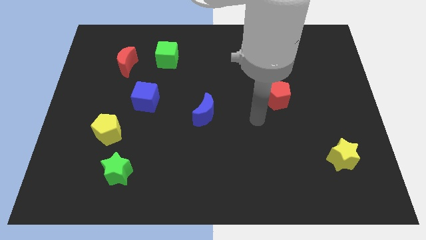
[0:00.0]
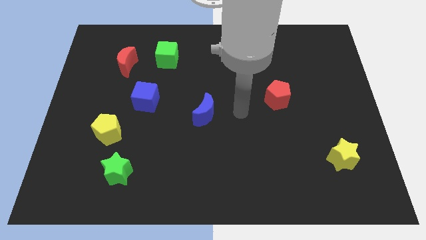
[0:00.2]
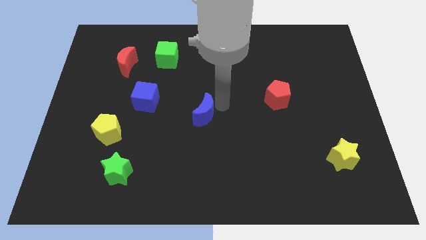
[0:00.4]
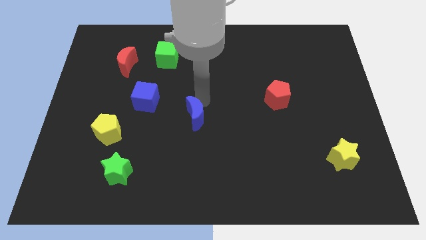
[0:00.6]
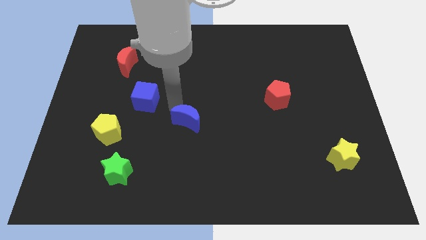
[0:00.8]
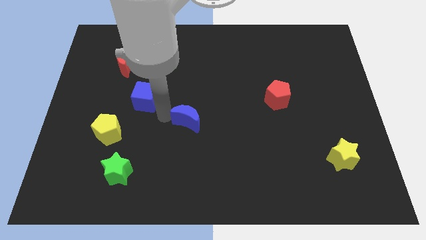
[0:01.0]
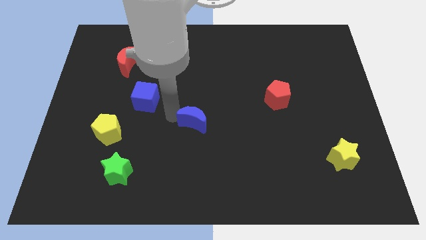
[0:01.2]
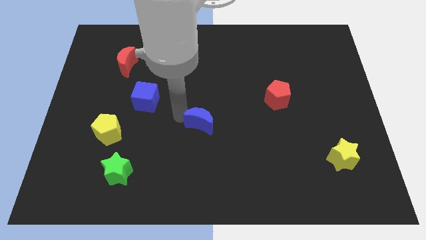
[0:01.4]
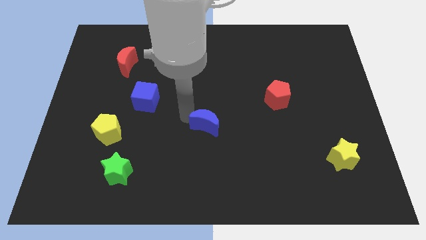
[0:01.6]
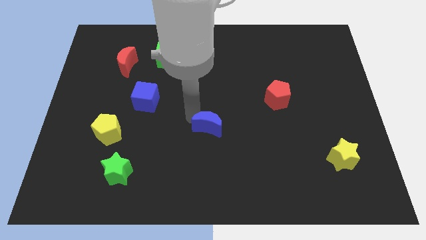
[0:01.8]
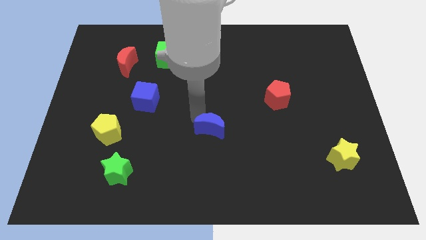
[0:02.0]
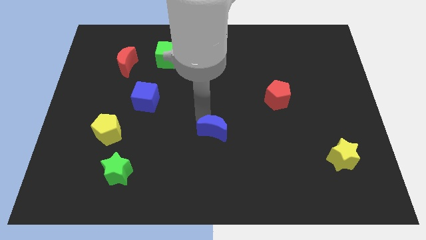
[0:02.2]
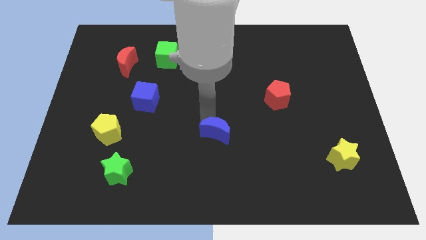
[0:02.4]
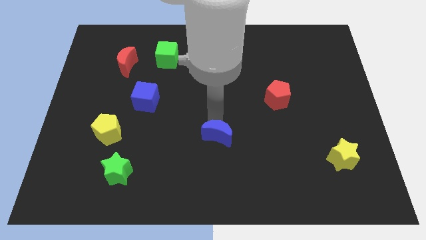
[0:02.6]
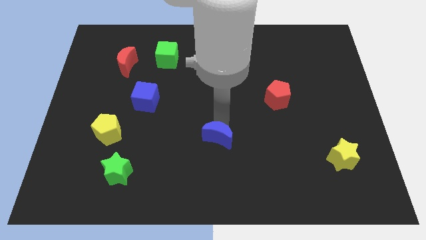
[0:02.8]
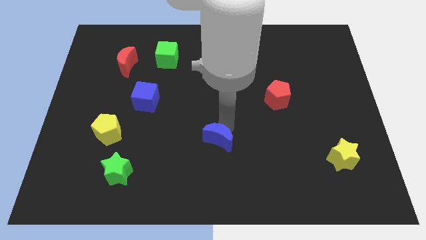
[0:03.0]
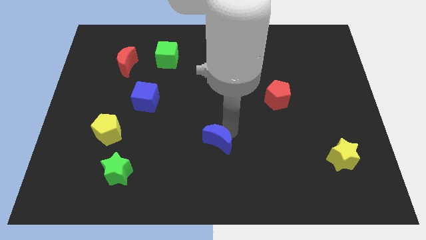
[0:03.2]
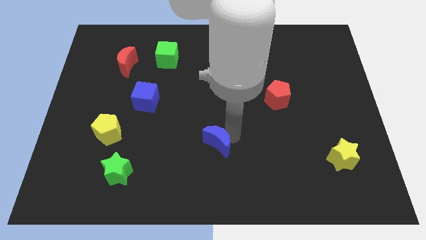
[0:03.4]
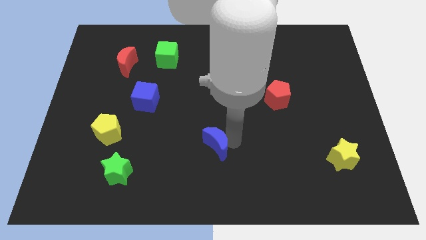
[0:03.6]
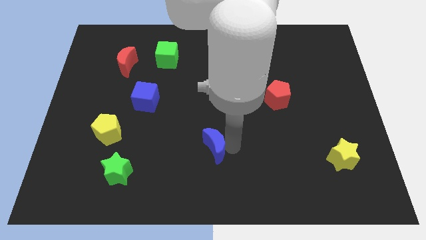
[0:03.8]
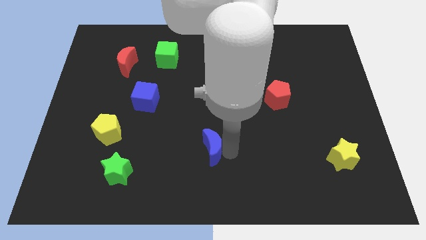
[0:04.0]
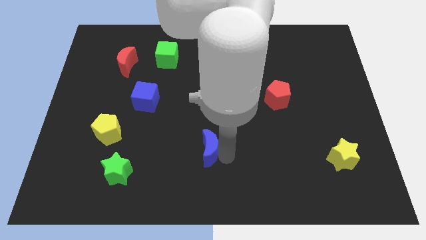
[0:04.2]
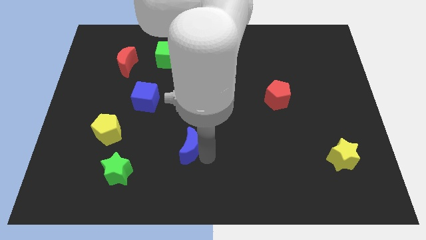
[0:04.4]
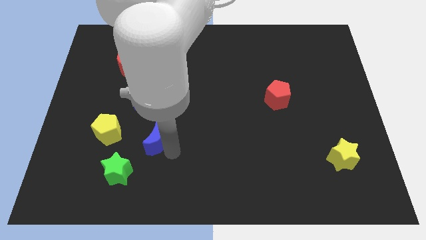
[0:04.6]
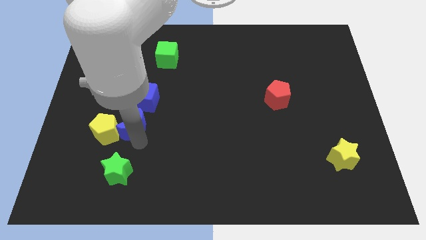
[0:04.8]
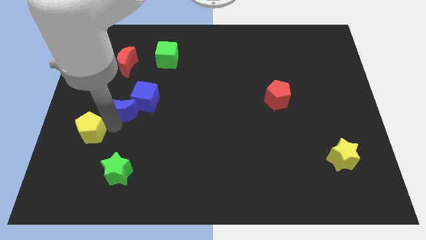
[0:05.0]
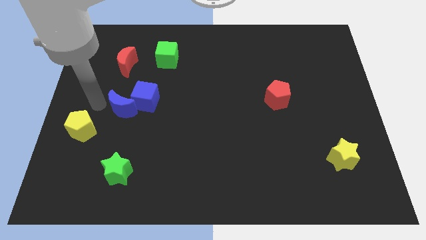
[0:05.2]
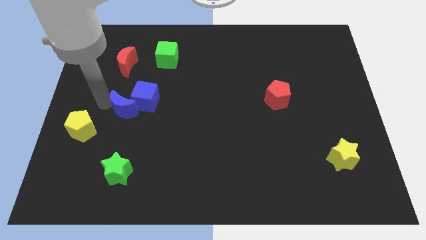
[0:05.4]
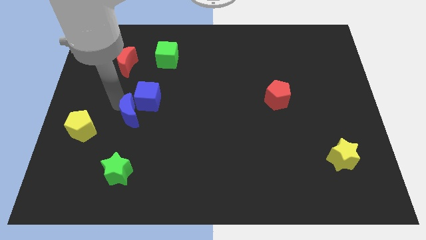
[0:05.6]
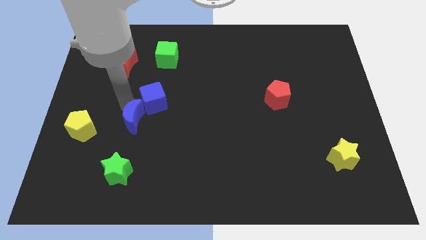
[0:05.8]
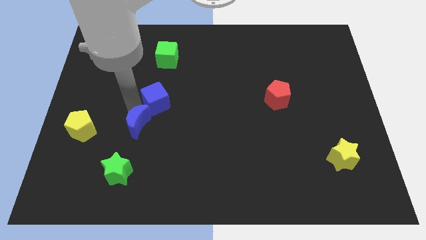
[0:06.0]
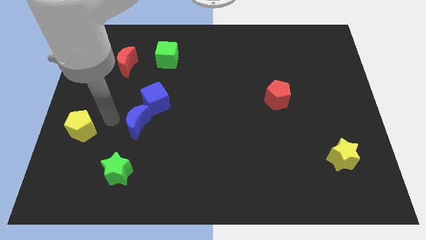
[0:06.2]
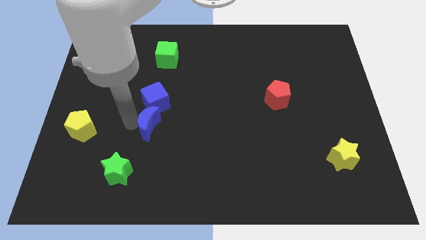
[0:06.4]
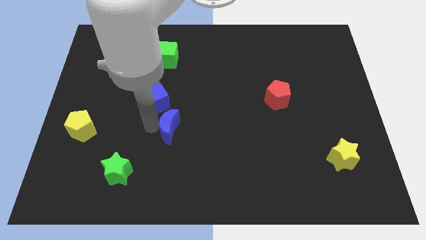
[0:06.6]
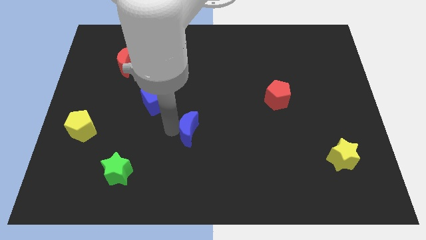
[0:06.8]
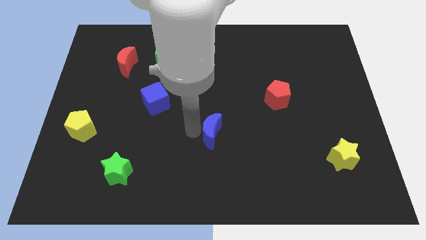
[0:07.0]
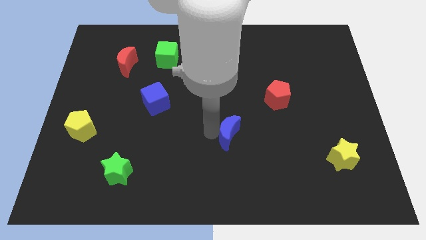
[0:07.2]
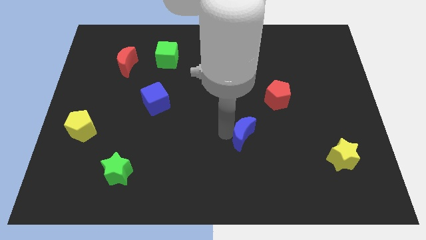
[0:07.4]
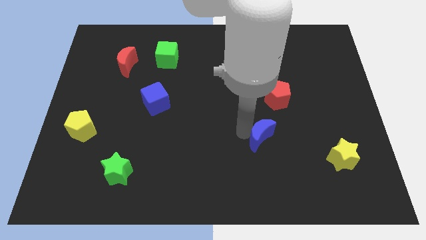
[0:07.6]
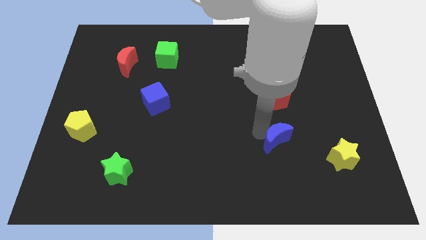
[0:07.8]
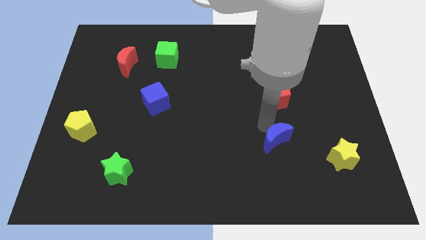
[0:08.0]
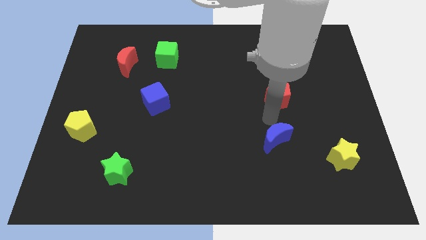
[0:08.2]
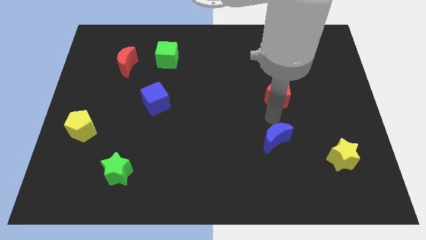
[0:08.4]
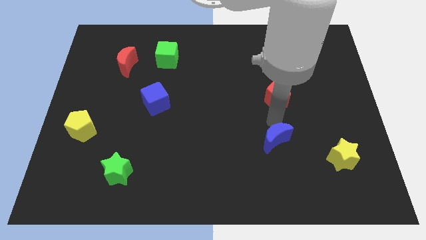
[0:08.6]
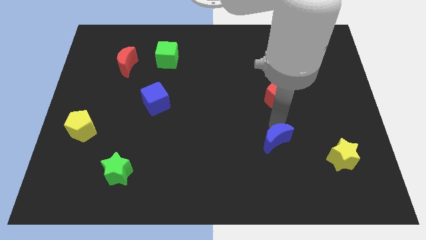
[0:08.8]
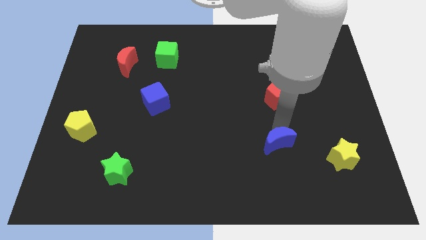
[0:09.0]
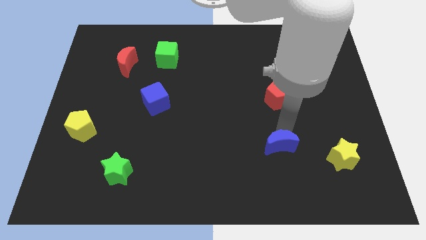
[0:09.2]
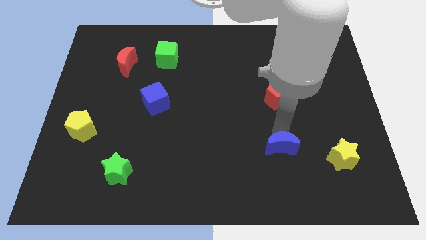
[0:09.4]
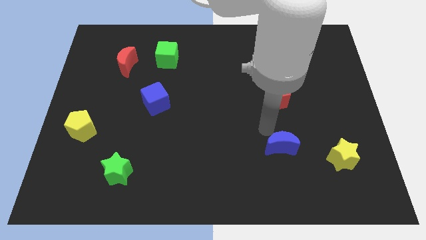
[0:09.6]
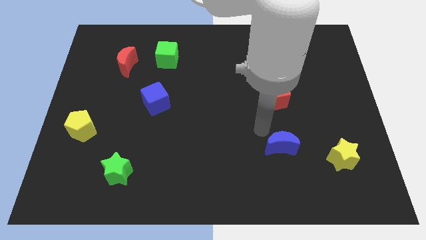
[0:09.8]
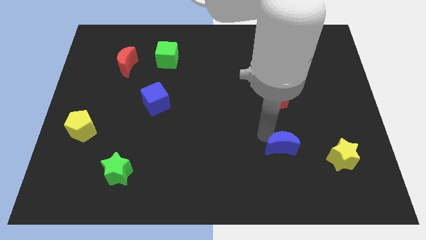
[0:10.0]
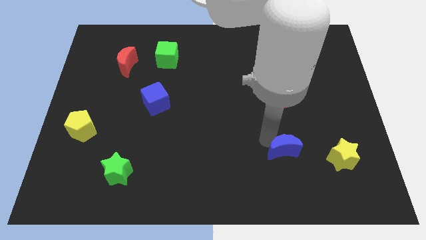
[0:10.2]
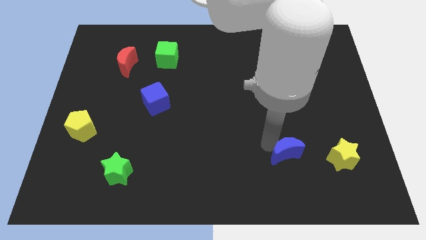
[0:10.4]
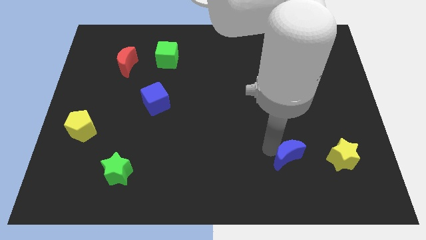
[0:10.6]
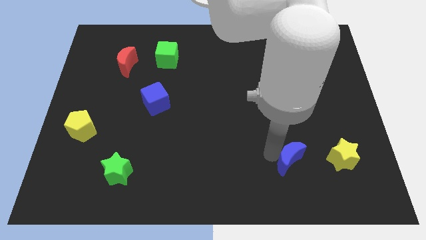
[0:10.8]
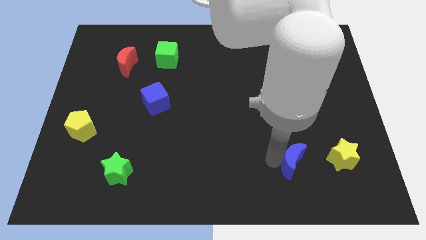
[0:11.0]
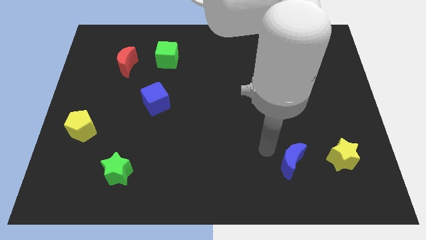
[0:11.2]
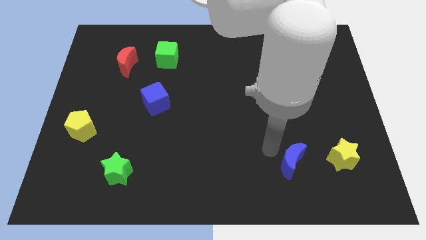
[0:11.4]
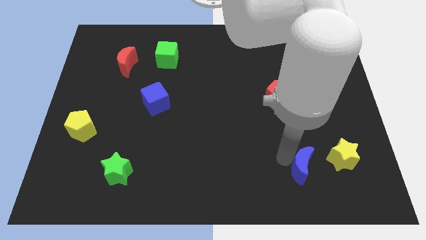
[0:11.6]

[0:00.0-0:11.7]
push the blue moon to the bottom left side of the yellow star

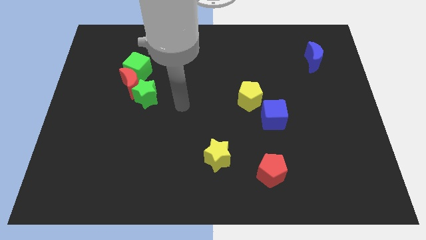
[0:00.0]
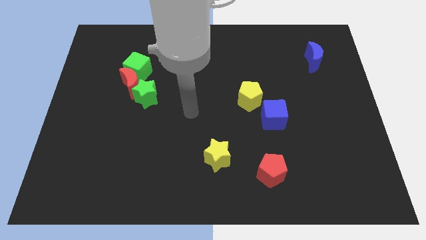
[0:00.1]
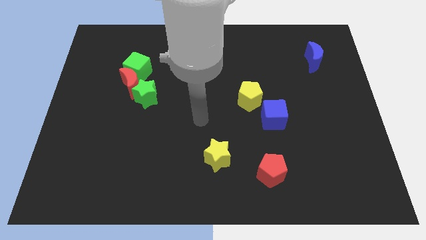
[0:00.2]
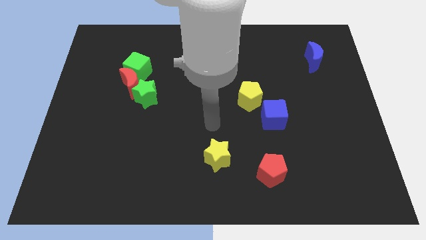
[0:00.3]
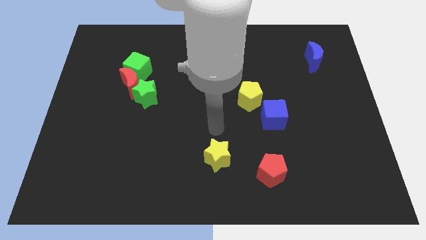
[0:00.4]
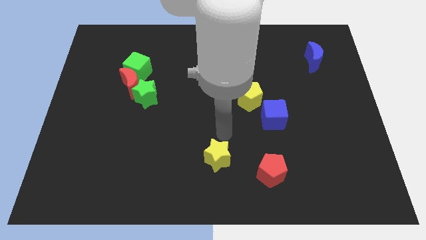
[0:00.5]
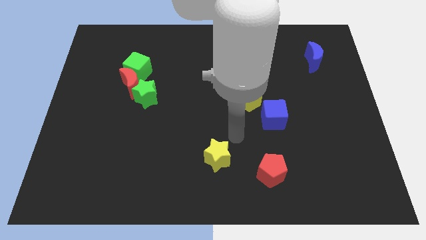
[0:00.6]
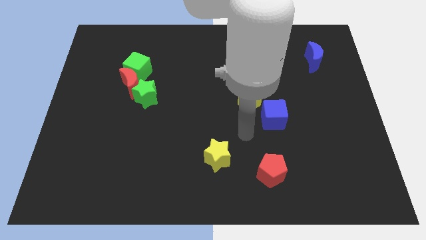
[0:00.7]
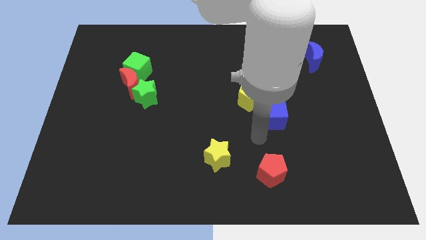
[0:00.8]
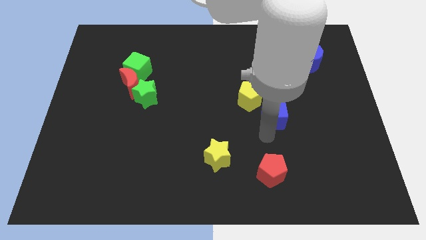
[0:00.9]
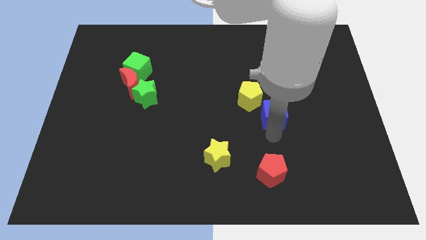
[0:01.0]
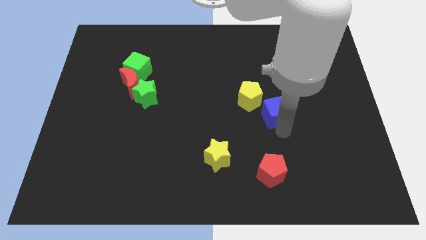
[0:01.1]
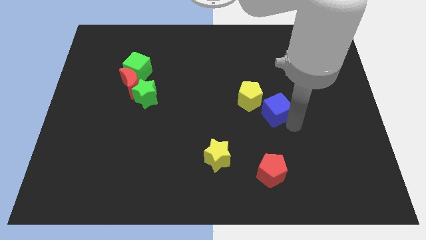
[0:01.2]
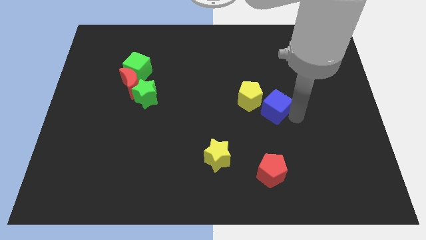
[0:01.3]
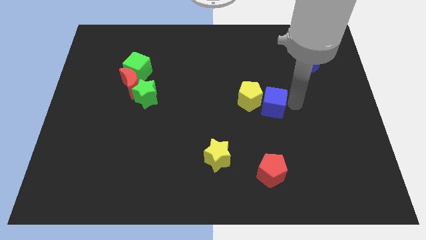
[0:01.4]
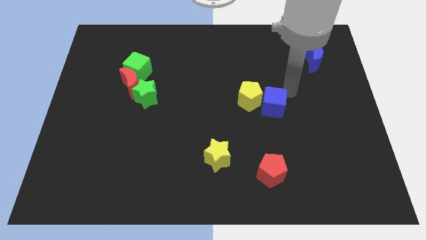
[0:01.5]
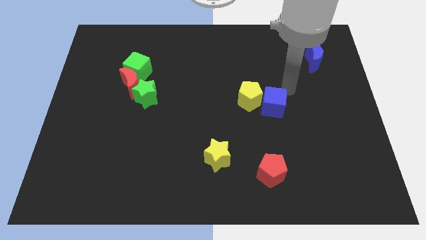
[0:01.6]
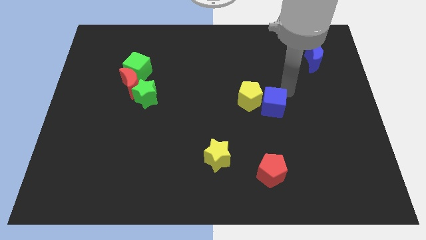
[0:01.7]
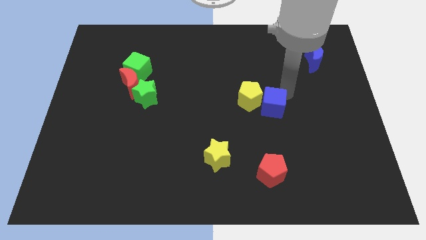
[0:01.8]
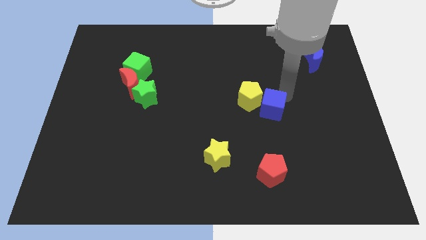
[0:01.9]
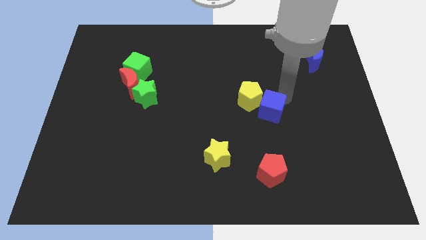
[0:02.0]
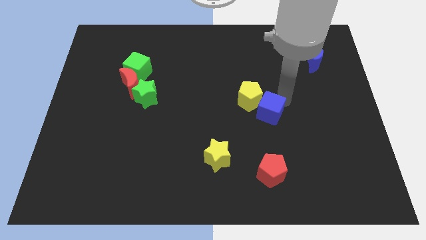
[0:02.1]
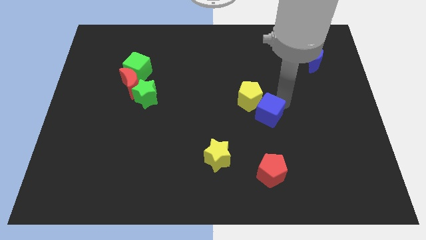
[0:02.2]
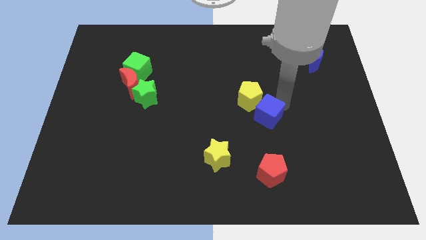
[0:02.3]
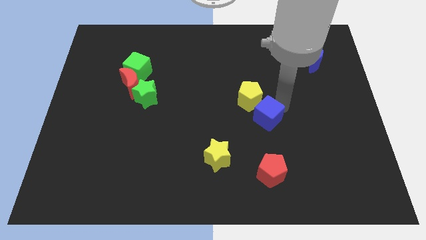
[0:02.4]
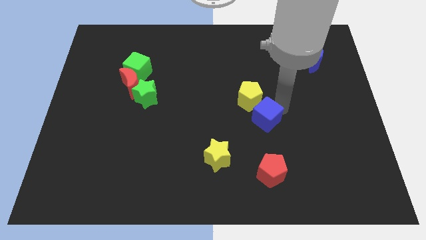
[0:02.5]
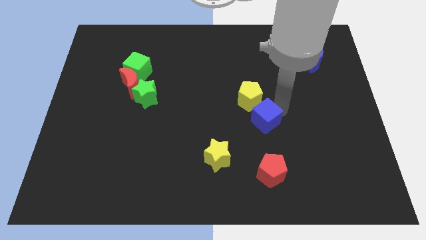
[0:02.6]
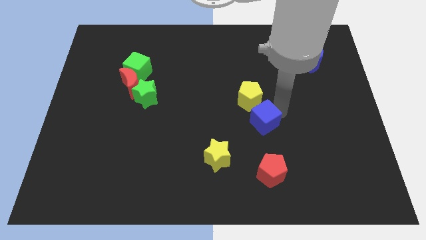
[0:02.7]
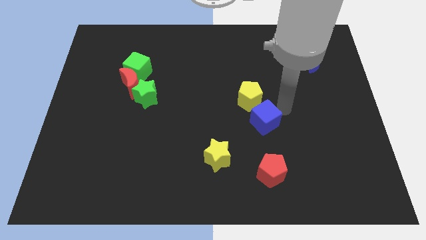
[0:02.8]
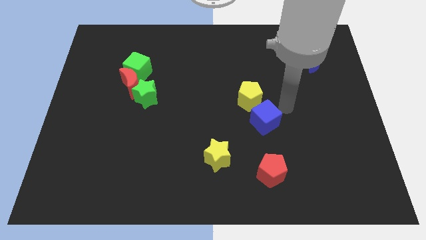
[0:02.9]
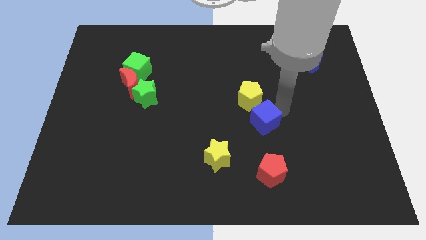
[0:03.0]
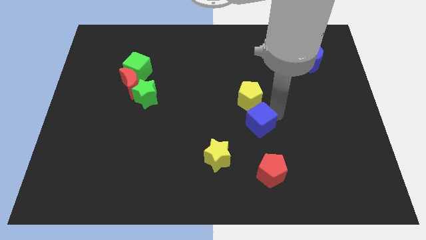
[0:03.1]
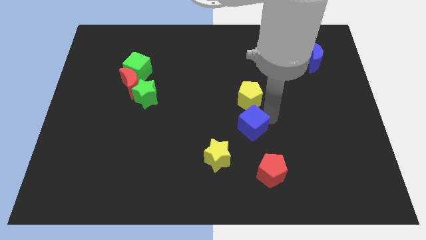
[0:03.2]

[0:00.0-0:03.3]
push the blue cube to the top right of the yellow star
